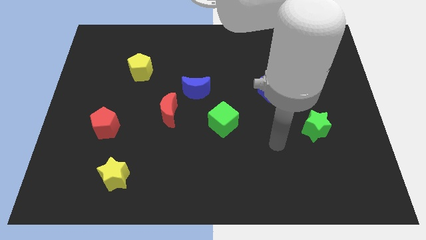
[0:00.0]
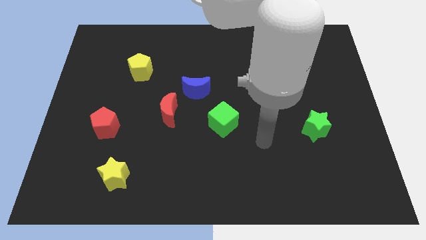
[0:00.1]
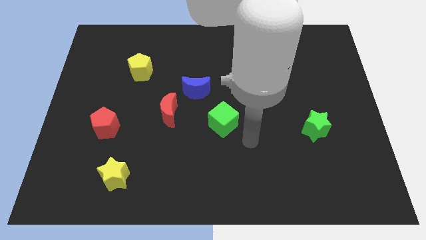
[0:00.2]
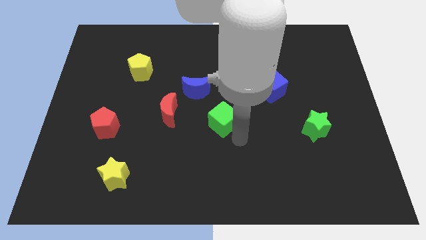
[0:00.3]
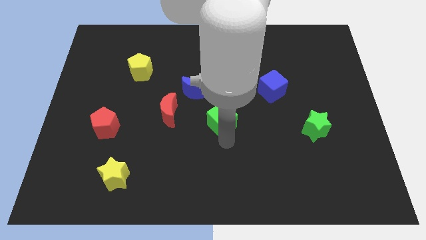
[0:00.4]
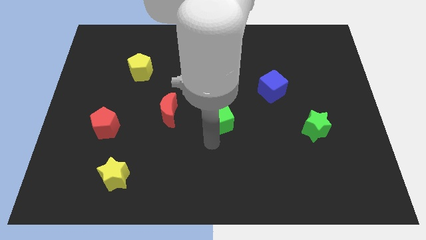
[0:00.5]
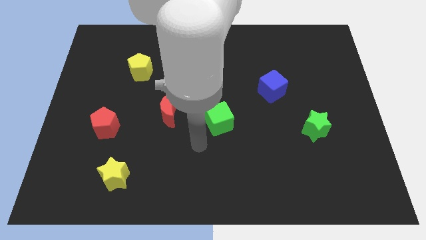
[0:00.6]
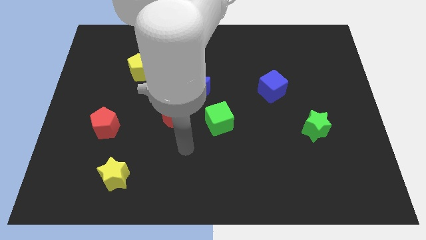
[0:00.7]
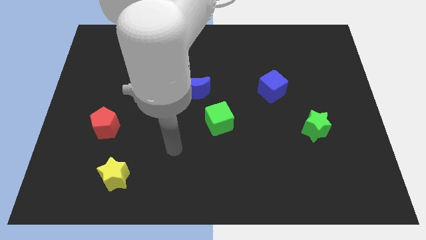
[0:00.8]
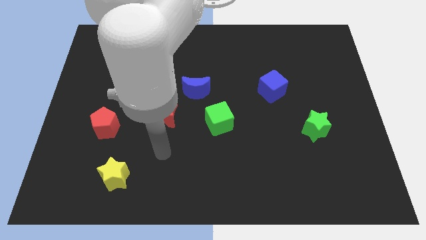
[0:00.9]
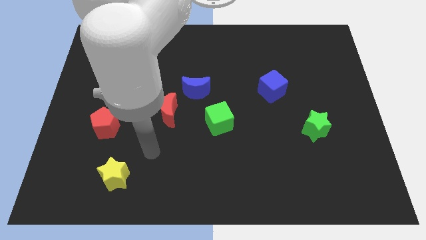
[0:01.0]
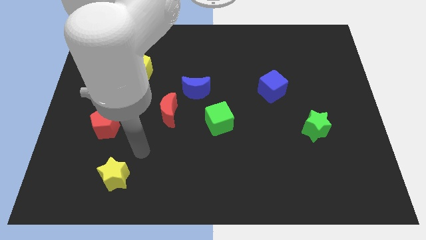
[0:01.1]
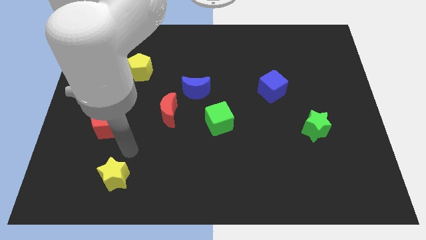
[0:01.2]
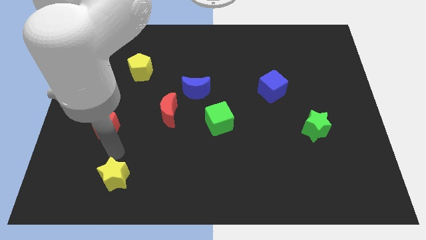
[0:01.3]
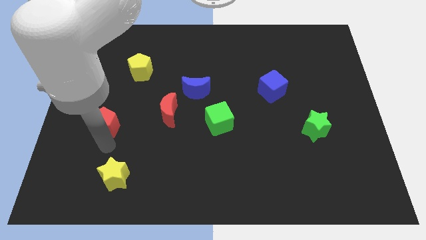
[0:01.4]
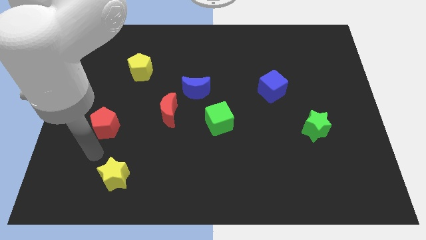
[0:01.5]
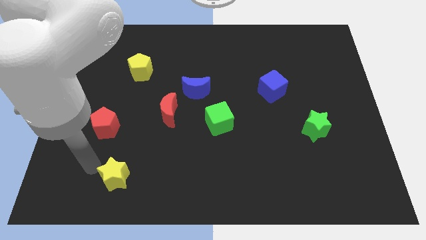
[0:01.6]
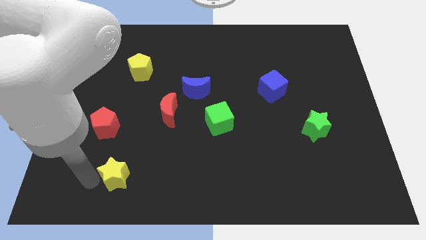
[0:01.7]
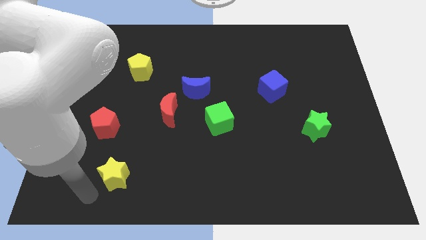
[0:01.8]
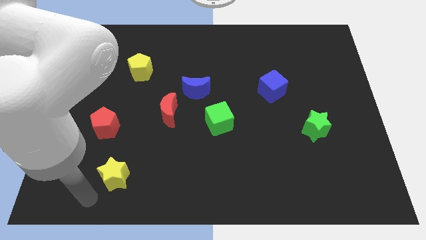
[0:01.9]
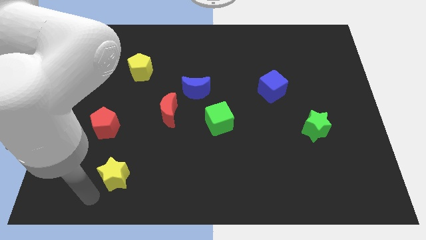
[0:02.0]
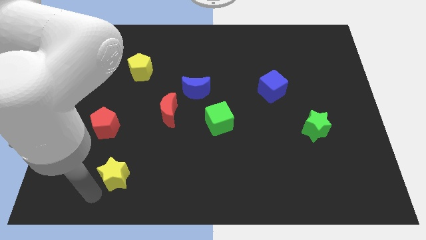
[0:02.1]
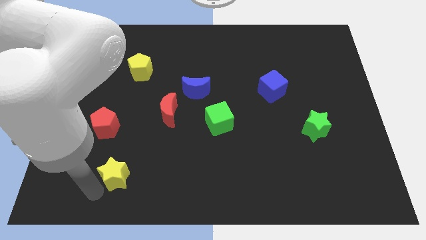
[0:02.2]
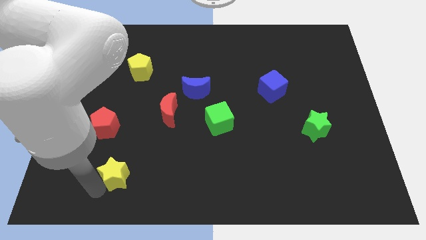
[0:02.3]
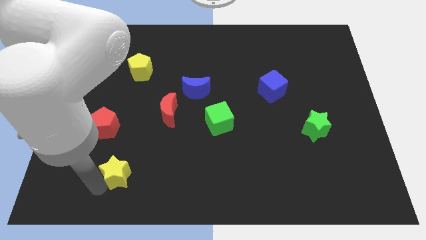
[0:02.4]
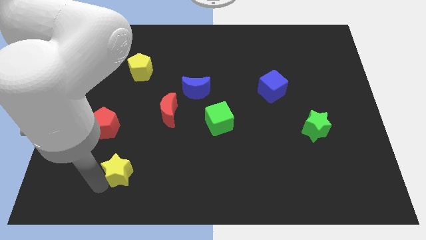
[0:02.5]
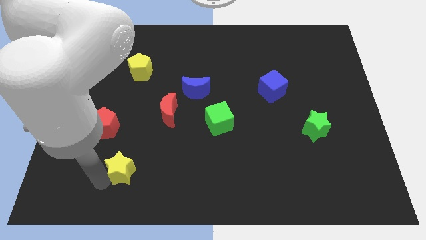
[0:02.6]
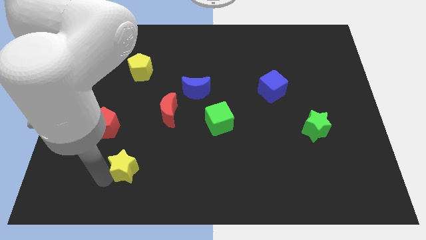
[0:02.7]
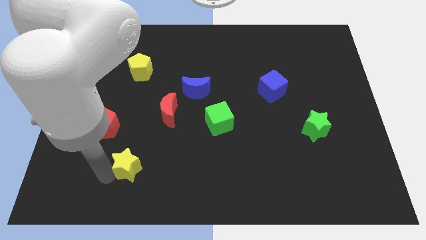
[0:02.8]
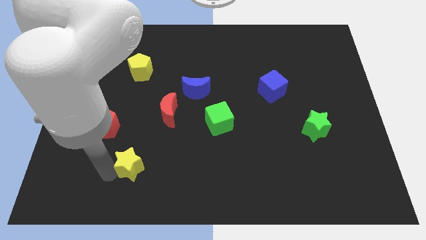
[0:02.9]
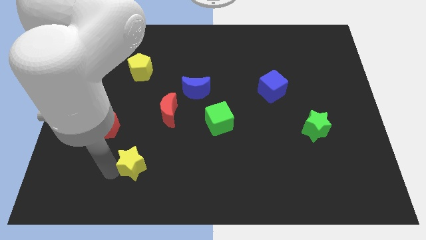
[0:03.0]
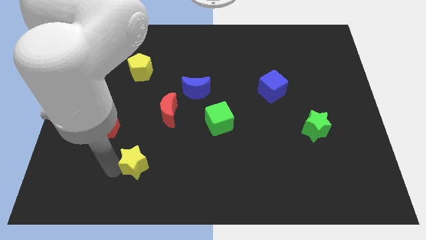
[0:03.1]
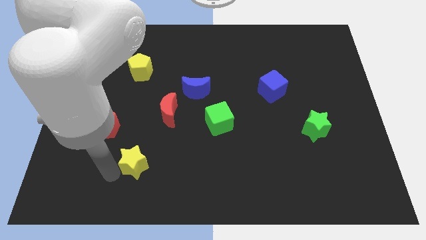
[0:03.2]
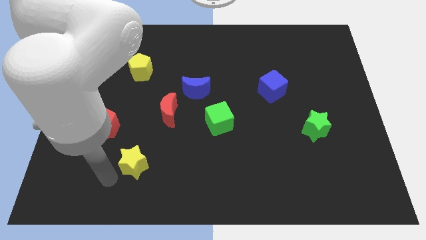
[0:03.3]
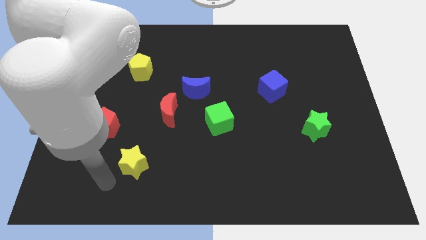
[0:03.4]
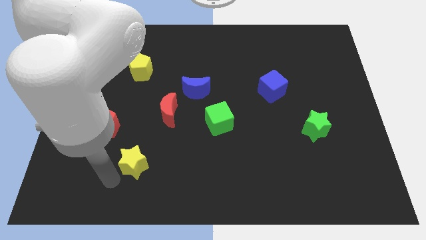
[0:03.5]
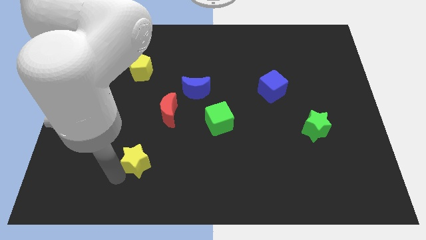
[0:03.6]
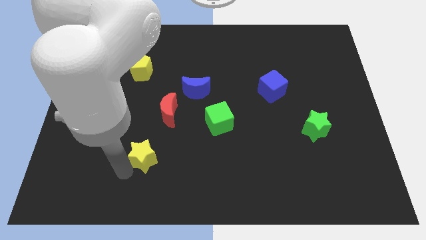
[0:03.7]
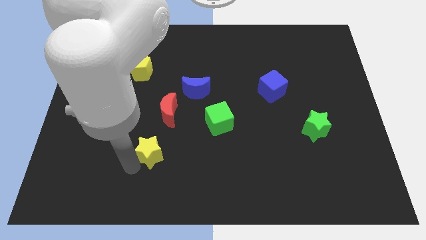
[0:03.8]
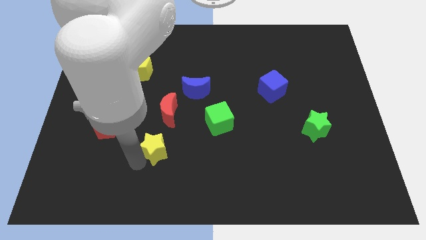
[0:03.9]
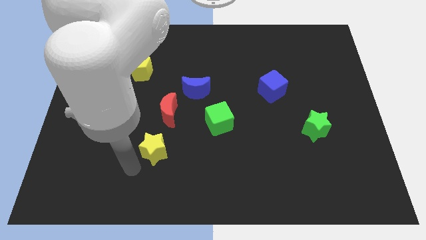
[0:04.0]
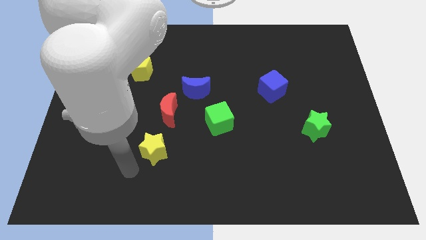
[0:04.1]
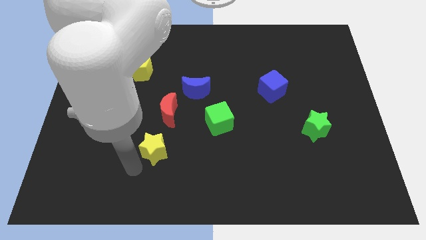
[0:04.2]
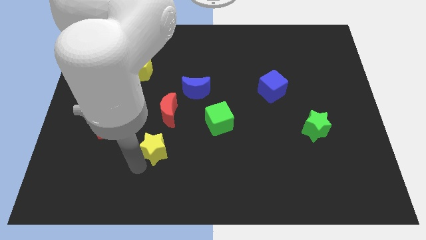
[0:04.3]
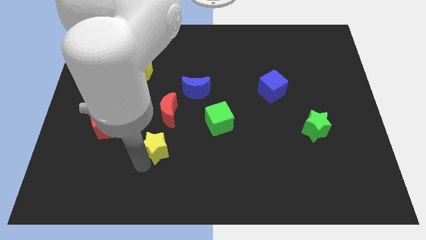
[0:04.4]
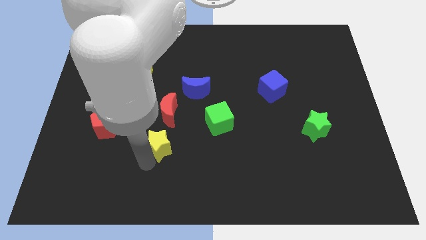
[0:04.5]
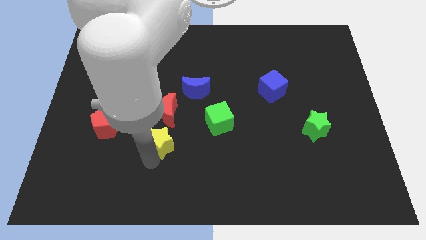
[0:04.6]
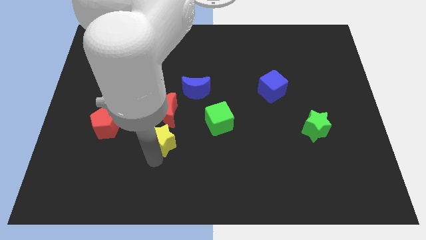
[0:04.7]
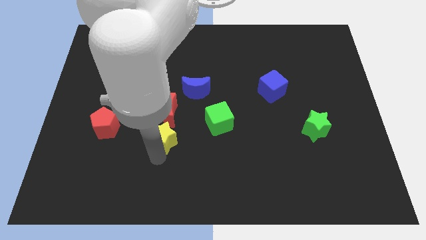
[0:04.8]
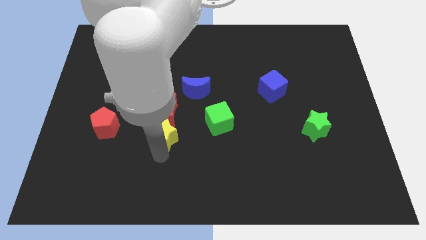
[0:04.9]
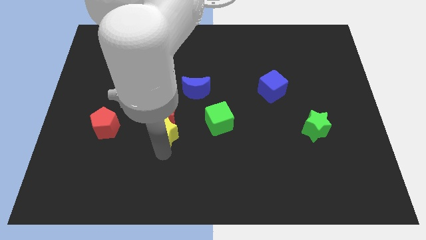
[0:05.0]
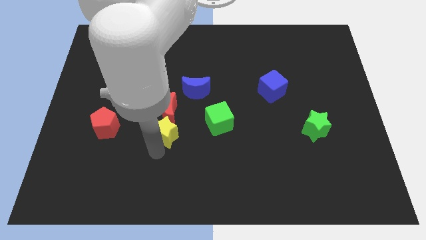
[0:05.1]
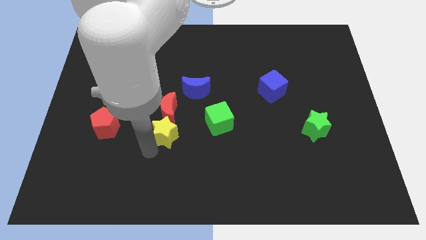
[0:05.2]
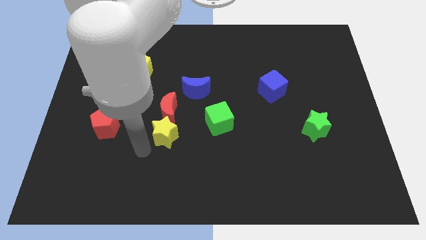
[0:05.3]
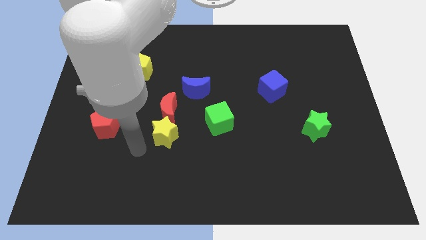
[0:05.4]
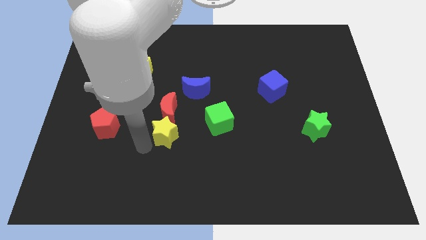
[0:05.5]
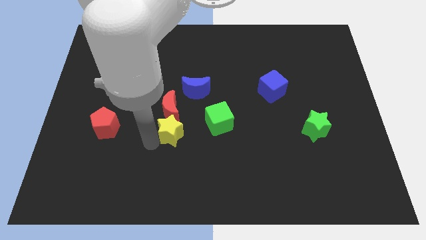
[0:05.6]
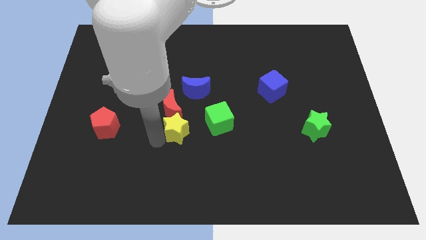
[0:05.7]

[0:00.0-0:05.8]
move the yellow star to the middle

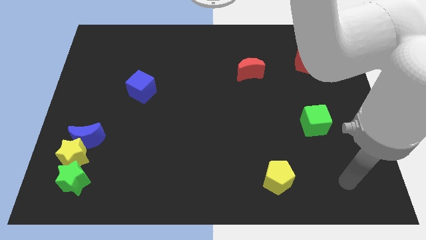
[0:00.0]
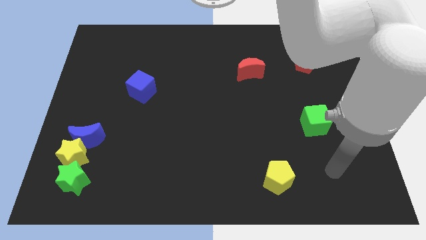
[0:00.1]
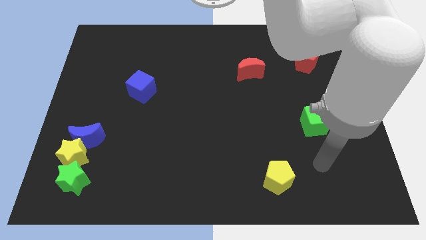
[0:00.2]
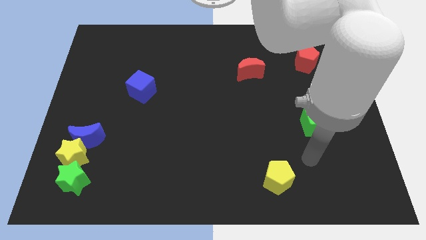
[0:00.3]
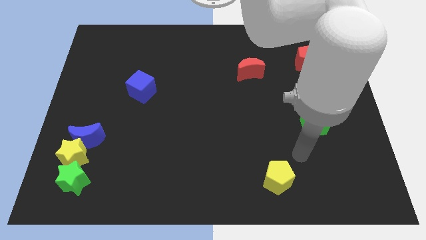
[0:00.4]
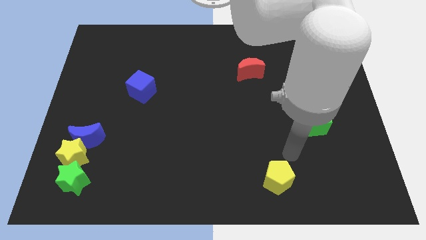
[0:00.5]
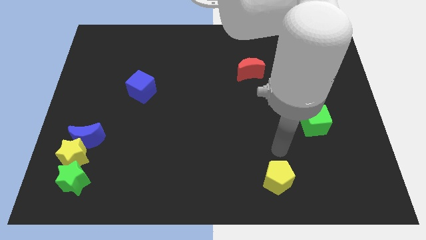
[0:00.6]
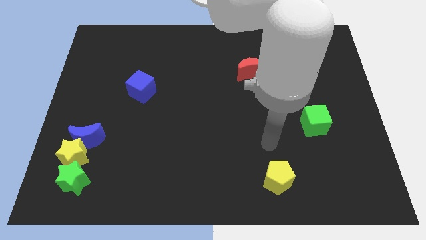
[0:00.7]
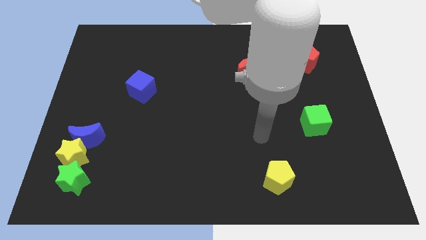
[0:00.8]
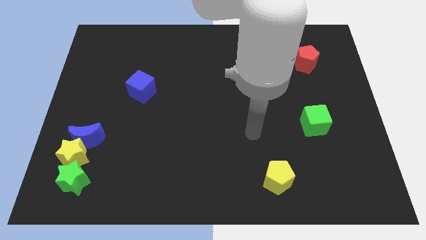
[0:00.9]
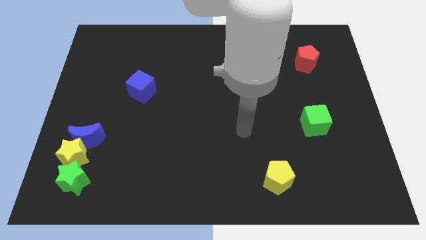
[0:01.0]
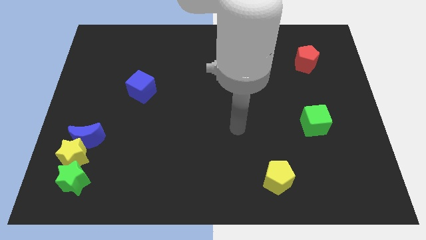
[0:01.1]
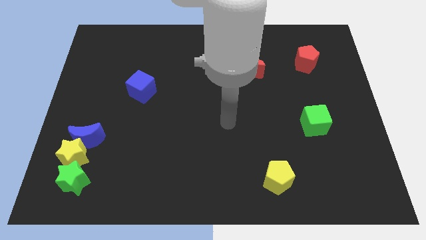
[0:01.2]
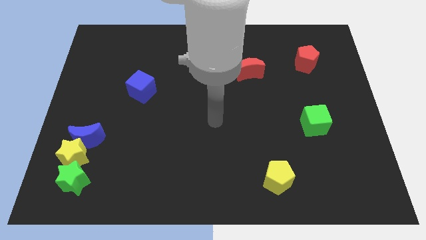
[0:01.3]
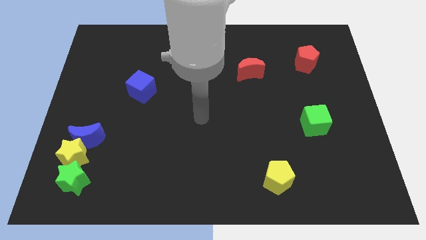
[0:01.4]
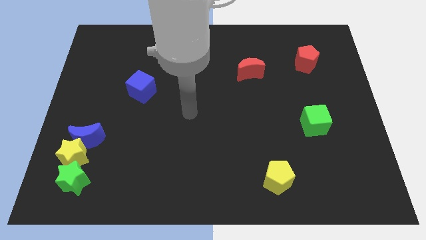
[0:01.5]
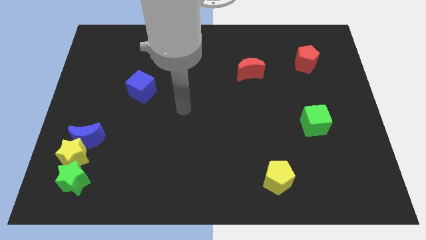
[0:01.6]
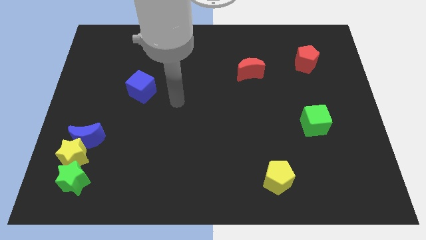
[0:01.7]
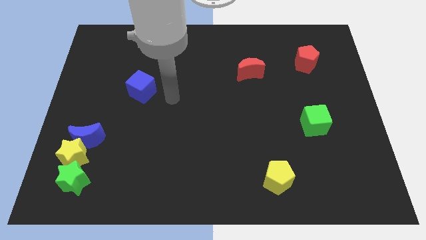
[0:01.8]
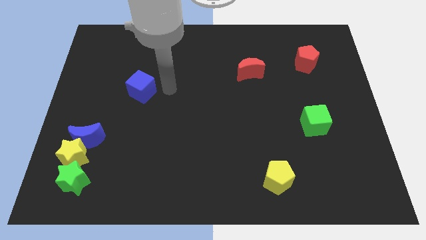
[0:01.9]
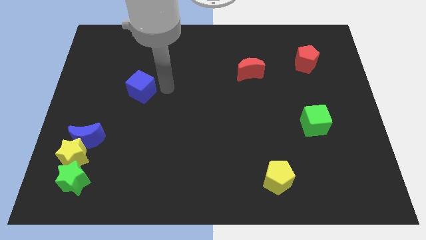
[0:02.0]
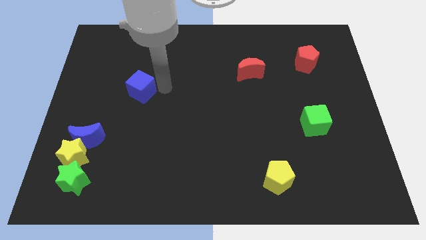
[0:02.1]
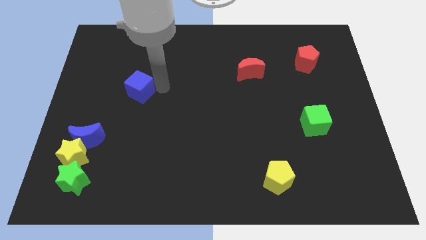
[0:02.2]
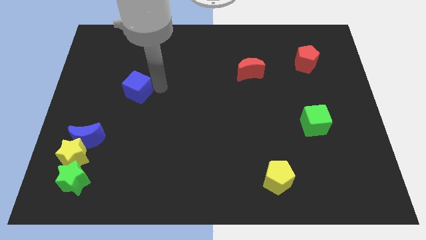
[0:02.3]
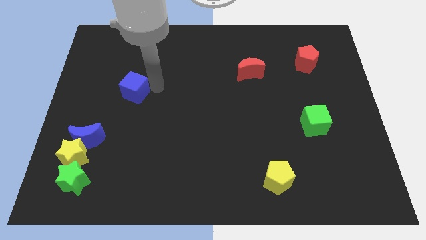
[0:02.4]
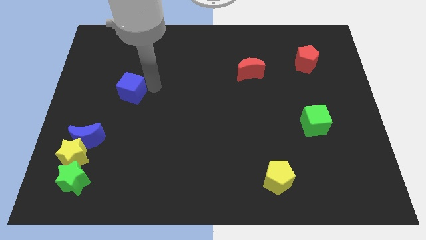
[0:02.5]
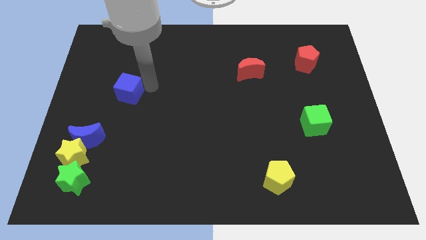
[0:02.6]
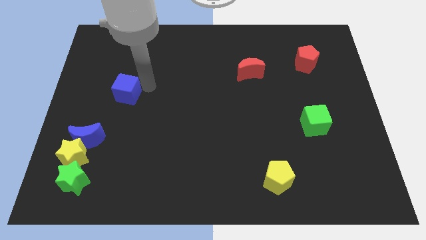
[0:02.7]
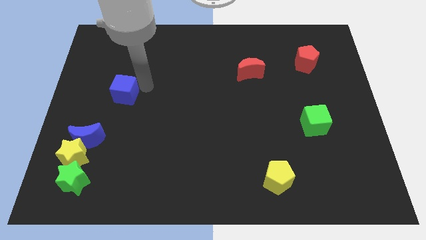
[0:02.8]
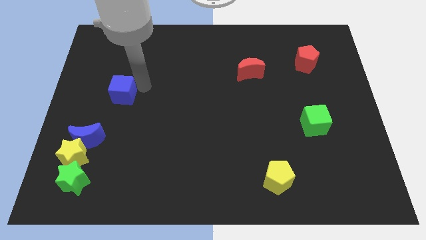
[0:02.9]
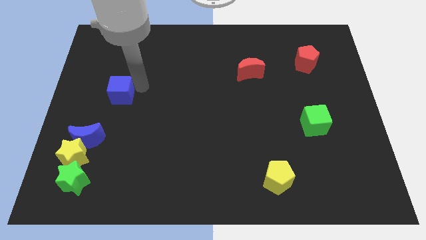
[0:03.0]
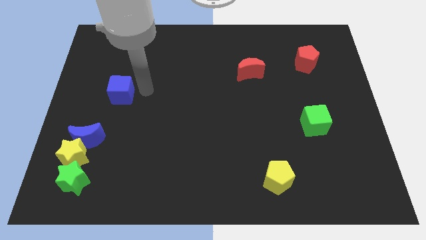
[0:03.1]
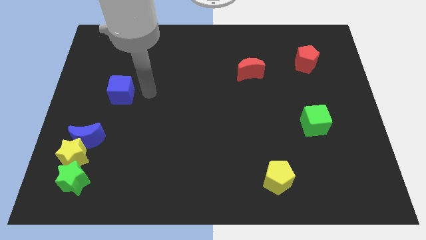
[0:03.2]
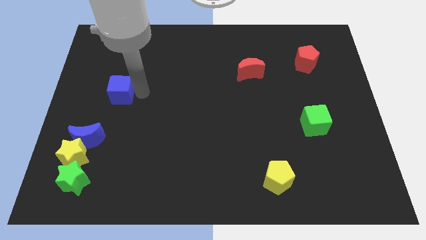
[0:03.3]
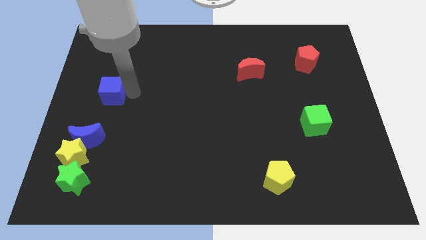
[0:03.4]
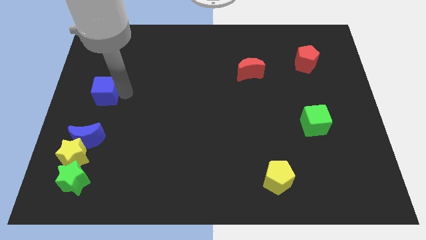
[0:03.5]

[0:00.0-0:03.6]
push the blue cube to the left side of the board
